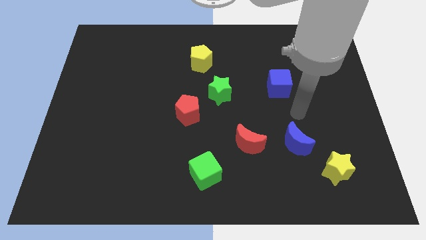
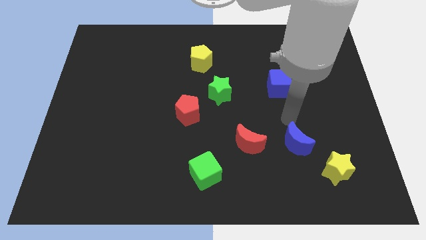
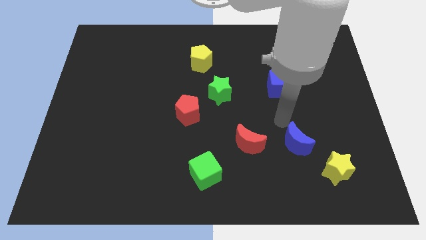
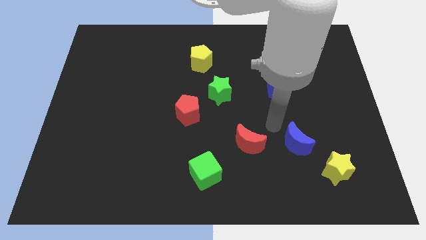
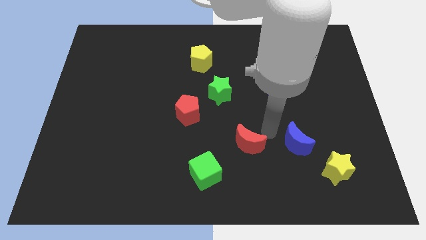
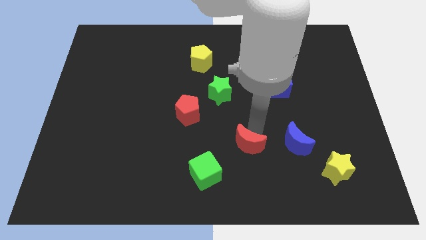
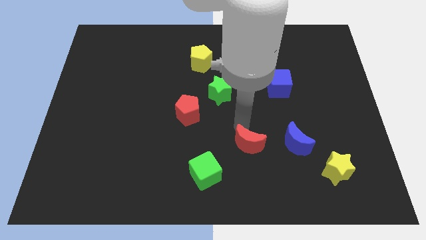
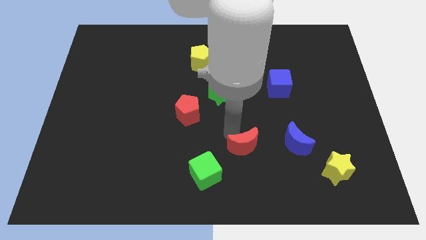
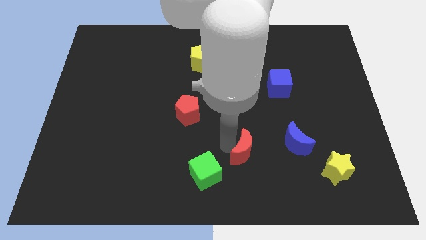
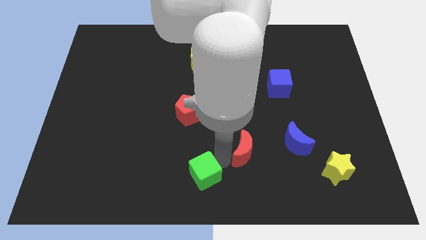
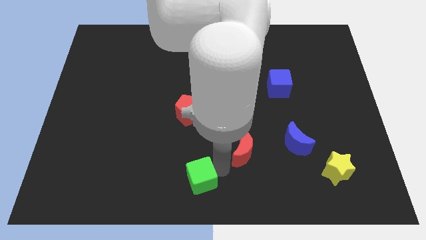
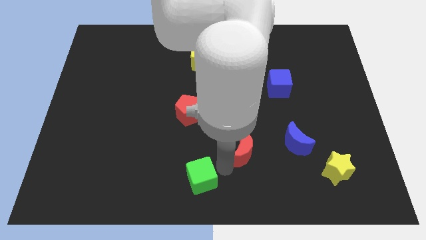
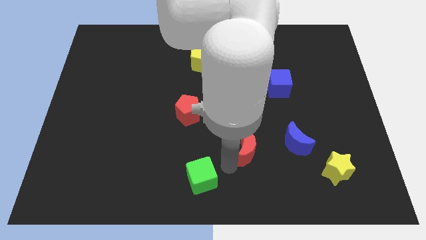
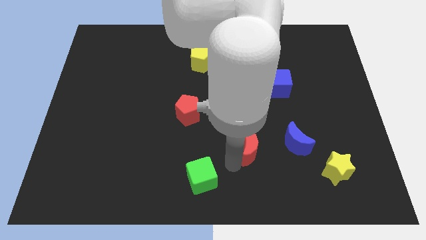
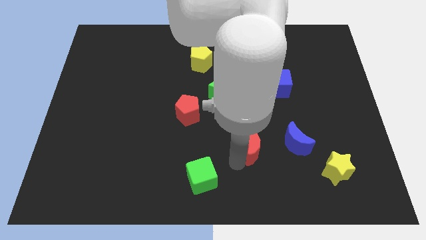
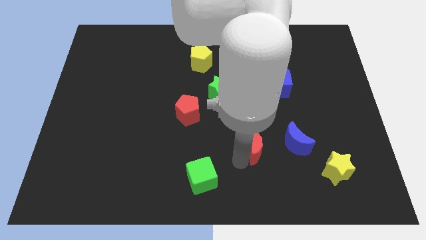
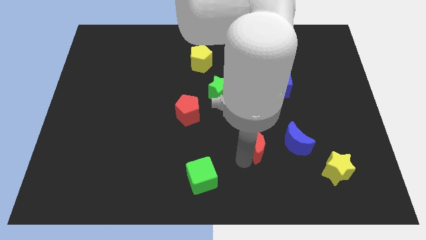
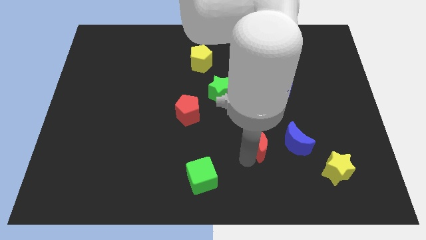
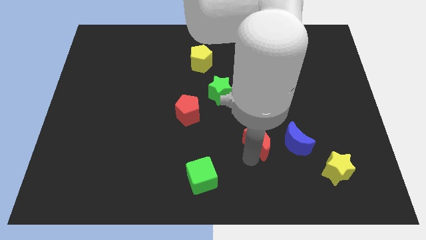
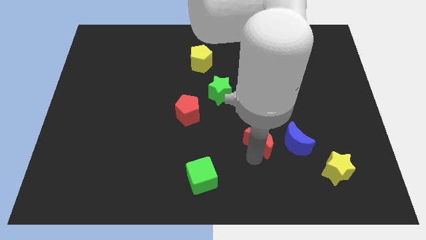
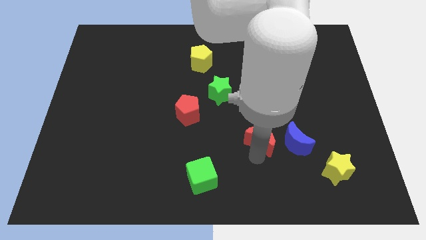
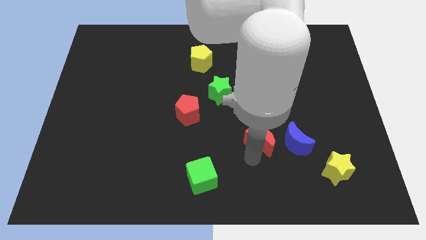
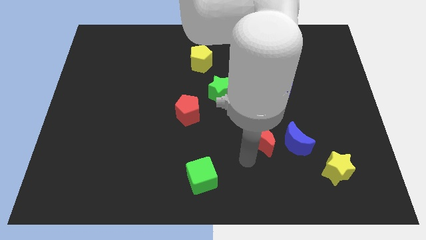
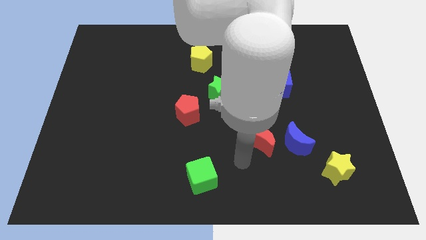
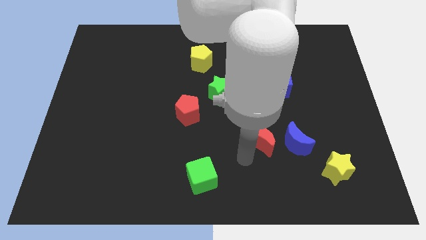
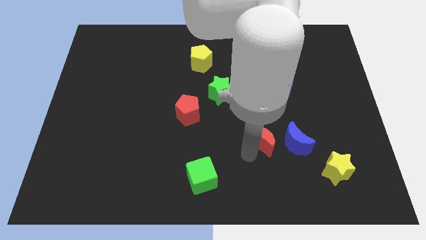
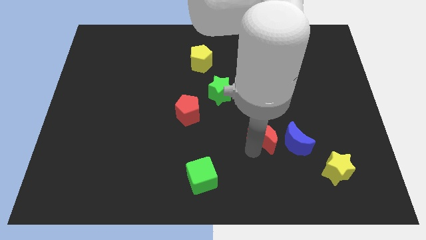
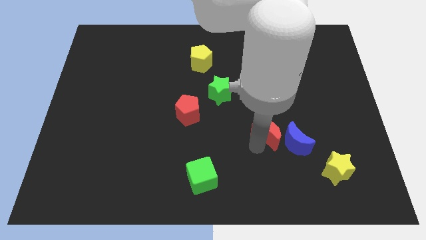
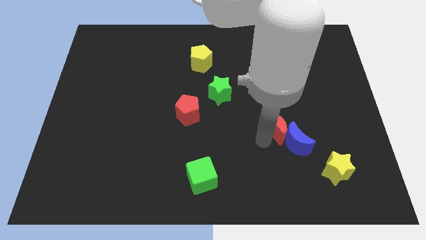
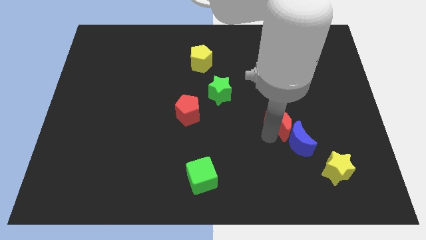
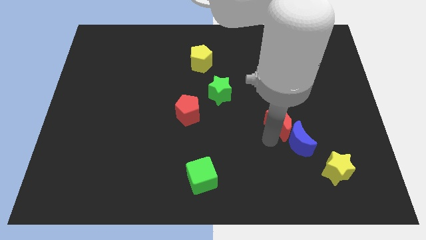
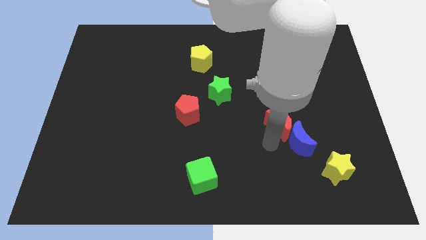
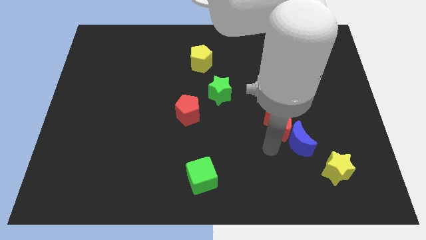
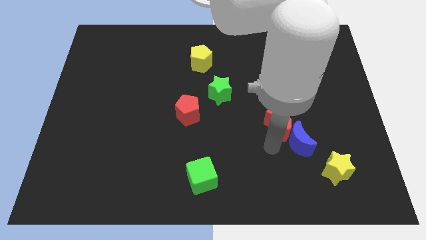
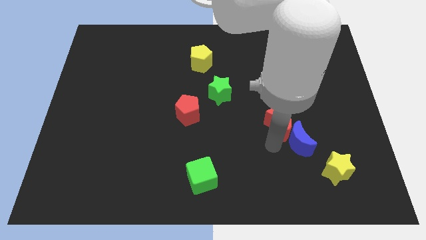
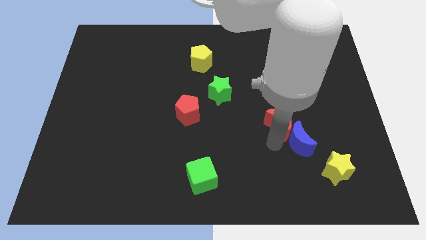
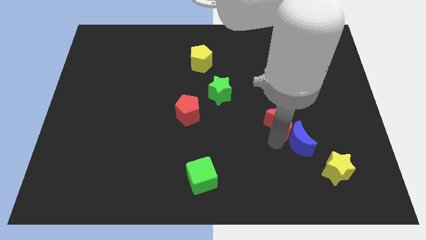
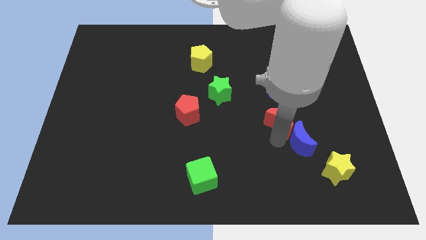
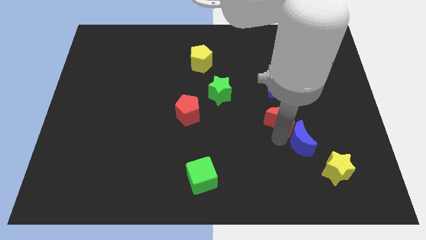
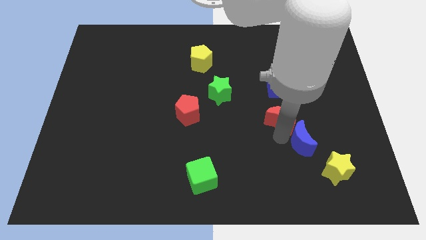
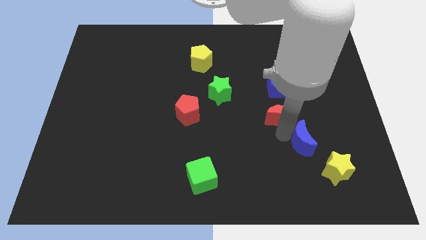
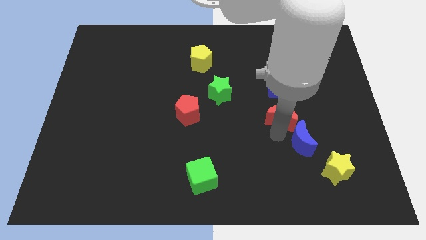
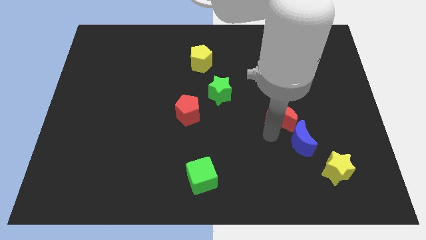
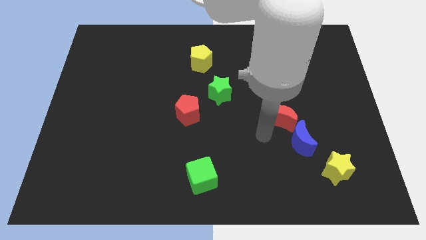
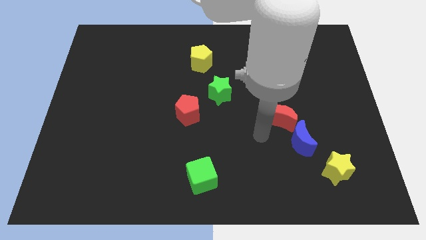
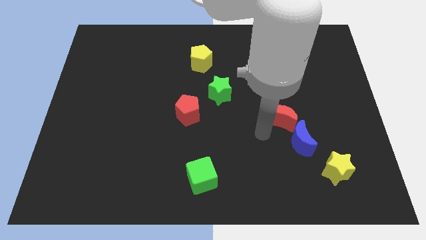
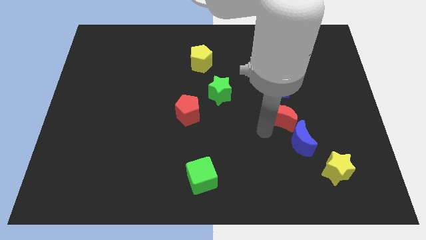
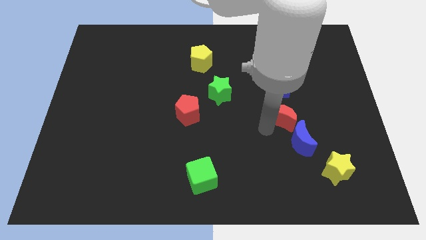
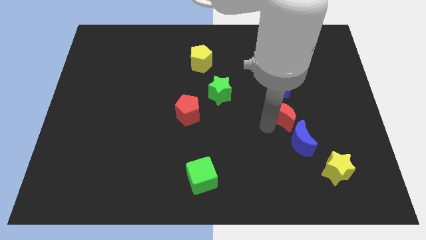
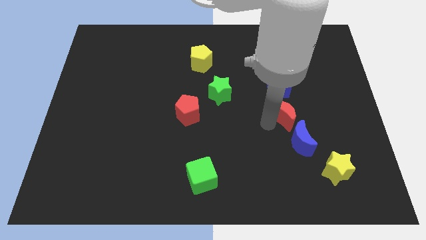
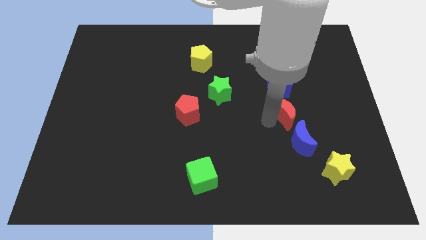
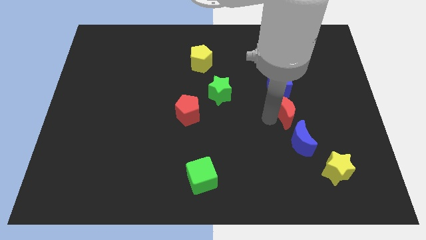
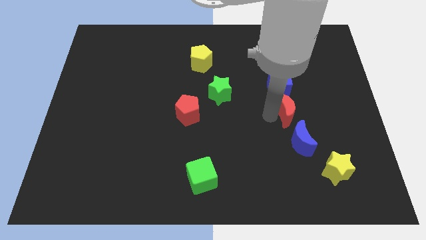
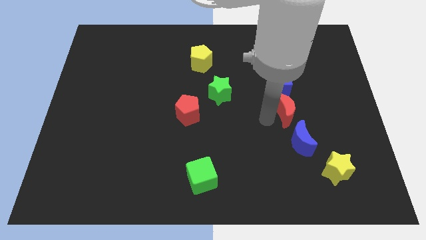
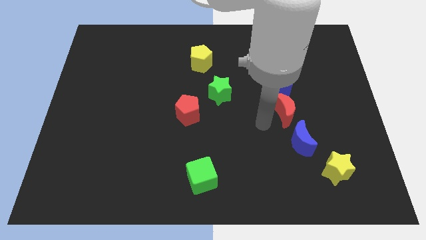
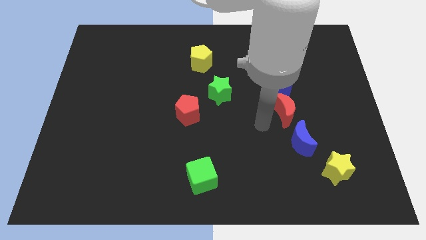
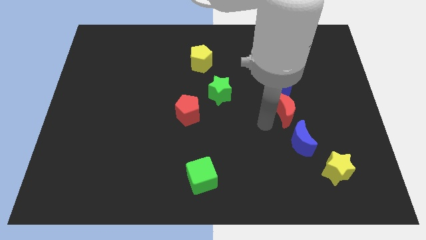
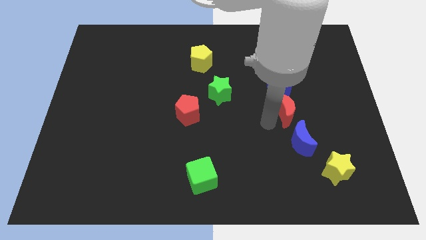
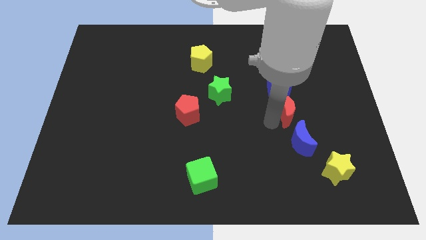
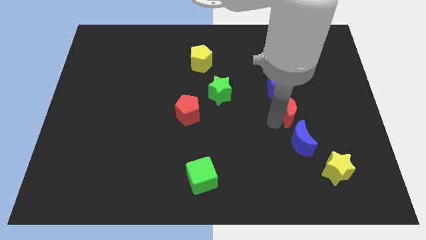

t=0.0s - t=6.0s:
move the red moon to the bottom right of the blue cube

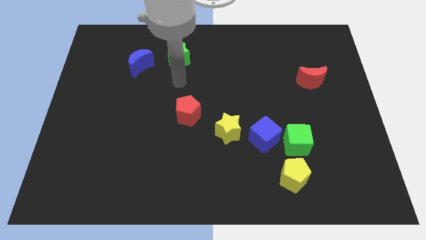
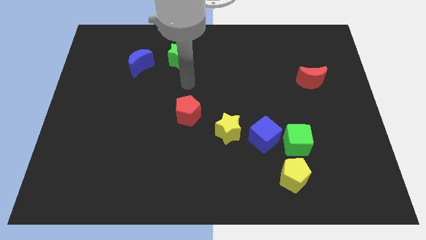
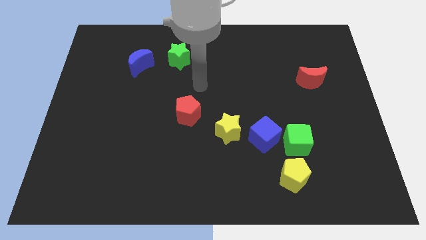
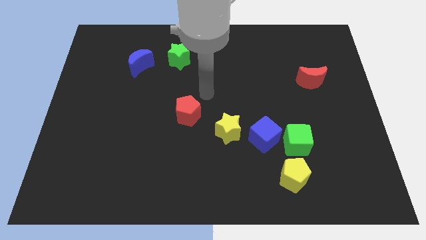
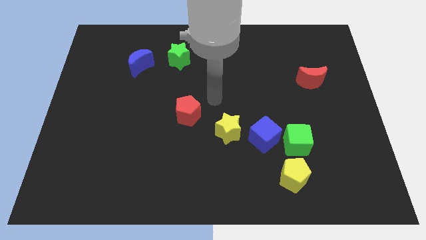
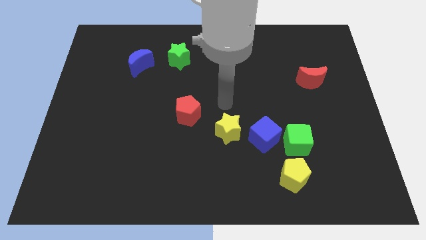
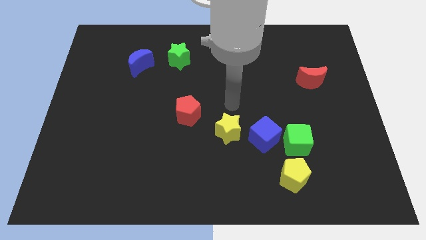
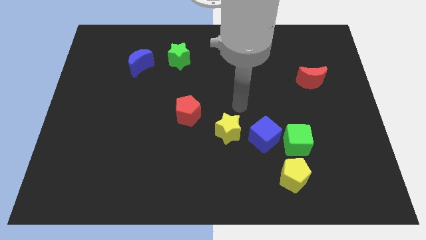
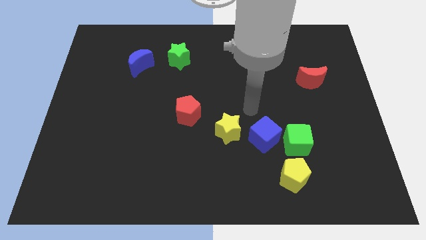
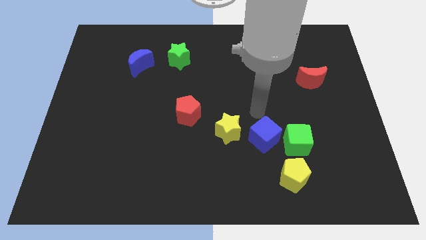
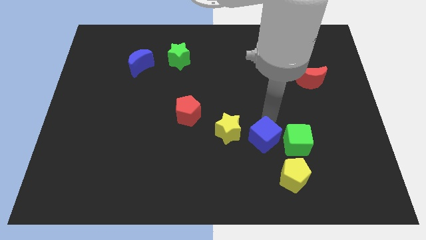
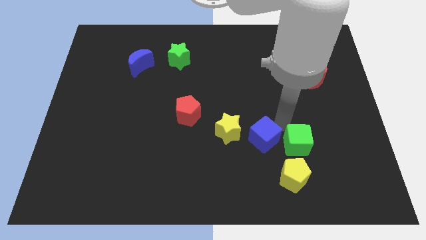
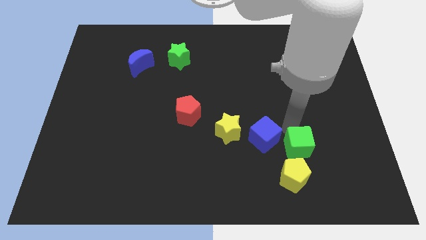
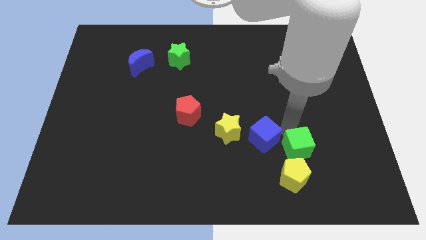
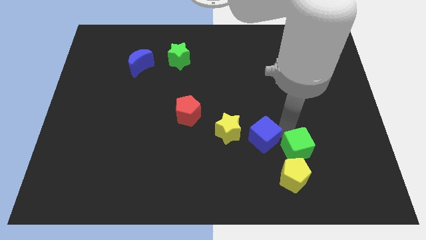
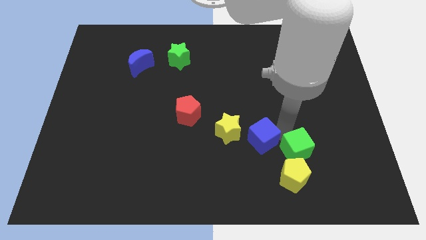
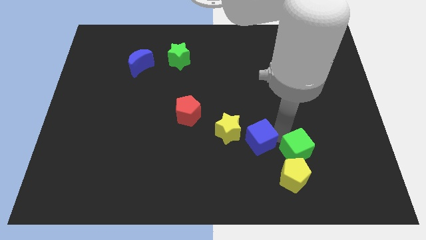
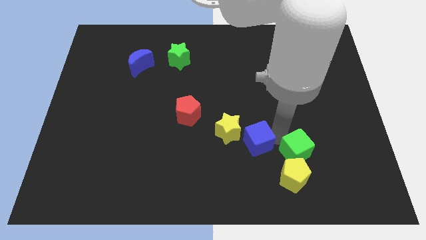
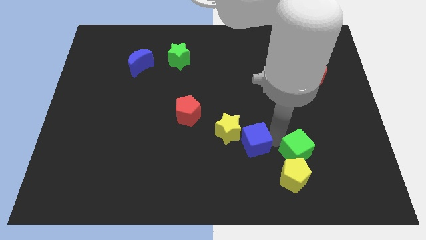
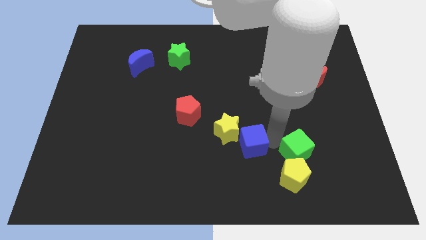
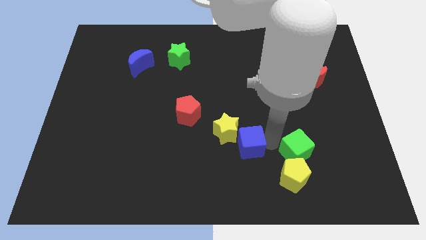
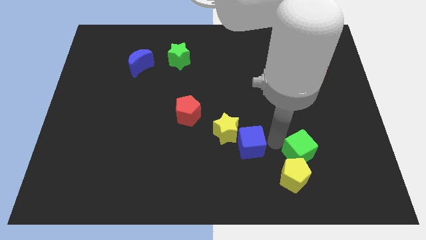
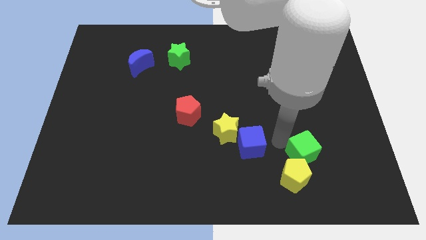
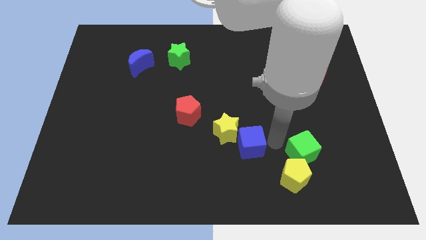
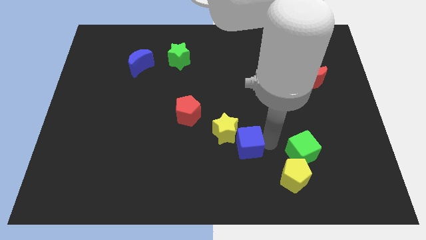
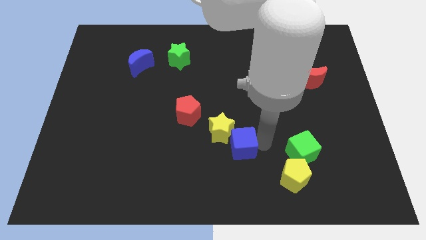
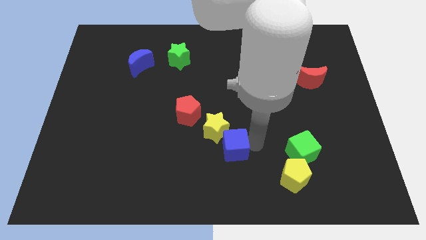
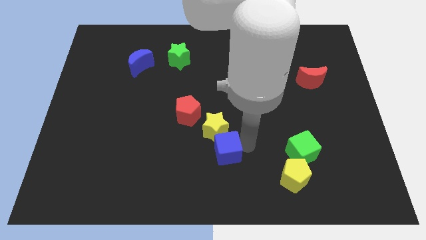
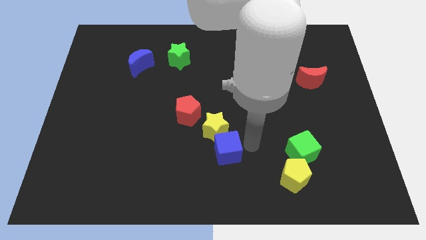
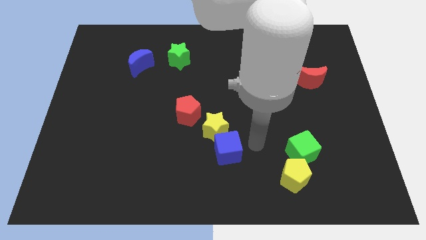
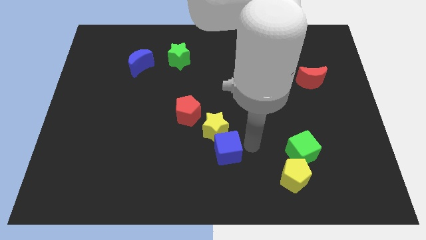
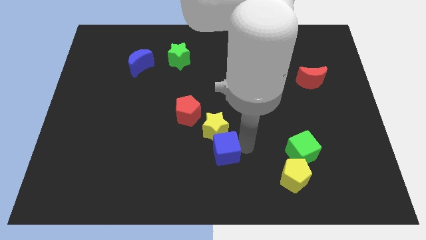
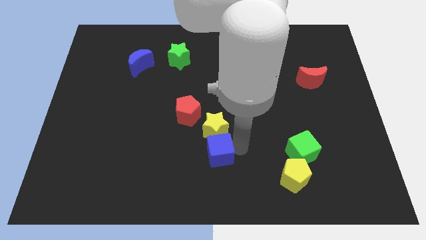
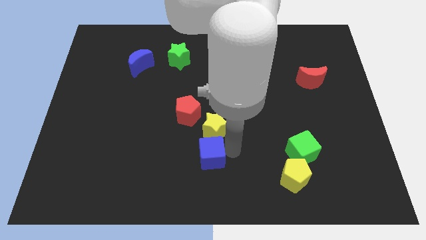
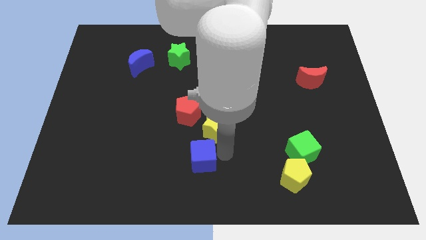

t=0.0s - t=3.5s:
move the blue cube below the red pentagon
